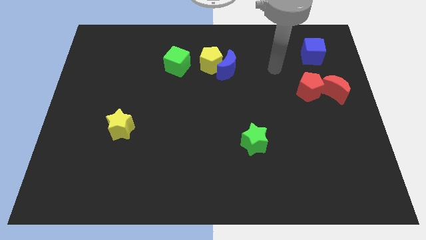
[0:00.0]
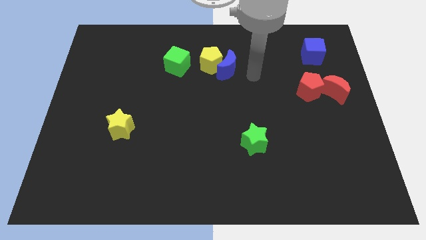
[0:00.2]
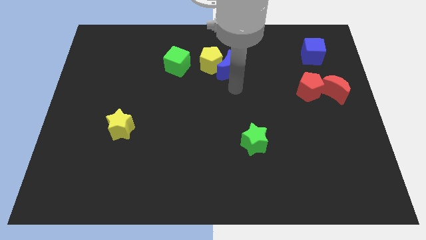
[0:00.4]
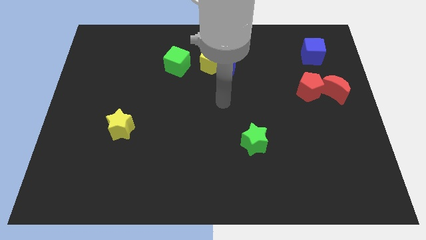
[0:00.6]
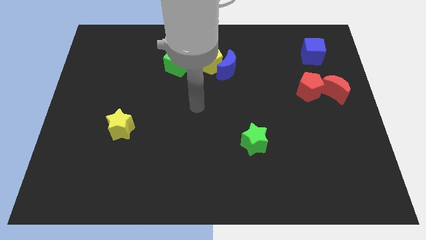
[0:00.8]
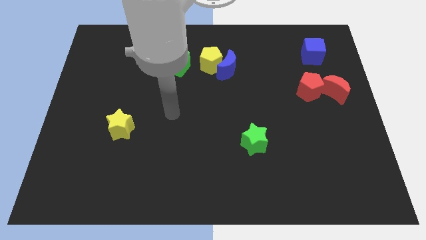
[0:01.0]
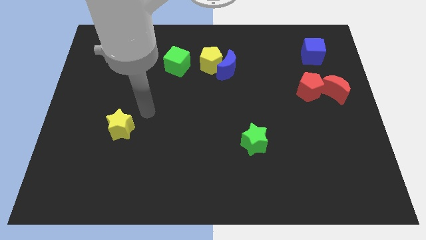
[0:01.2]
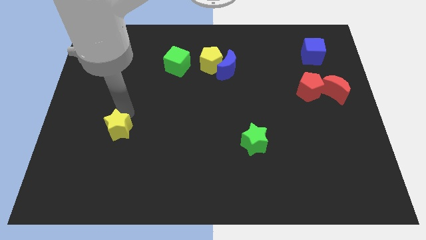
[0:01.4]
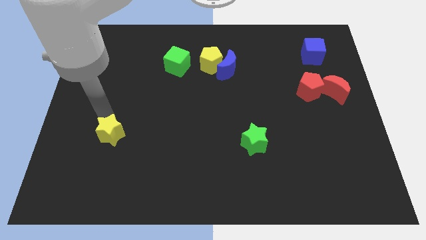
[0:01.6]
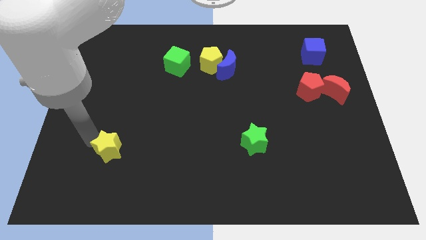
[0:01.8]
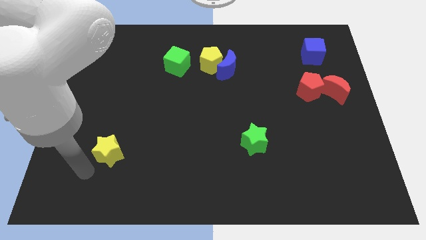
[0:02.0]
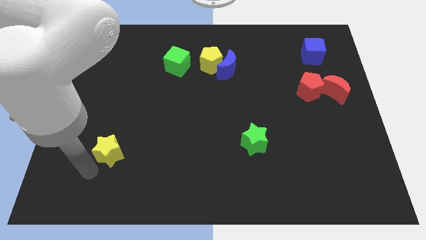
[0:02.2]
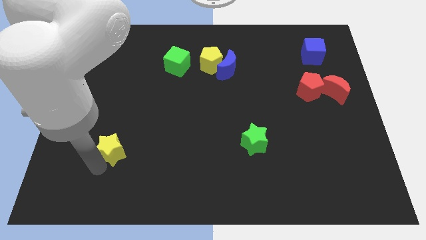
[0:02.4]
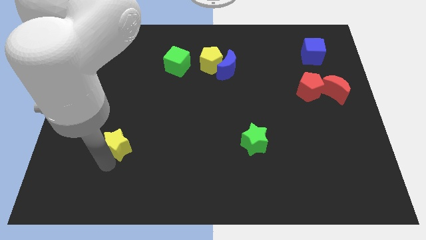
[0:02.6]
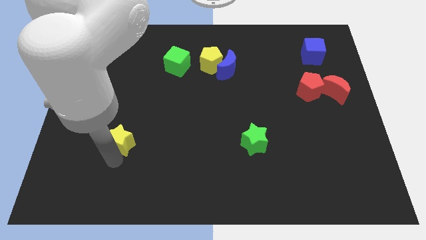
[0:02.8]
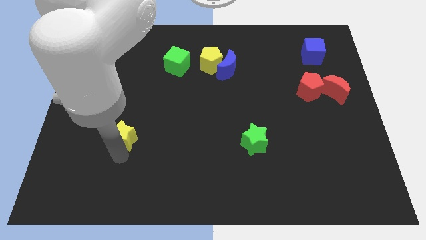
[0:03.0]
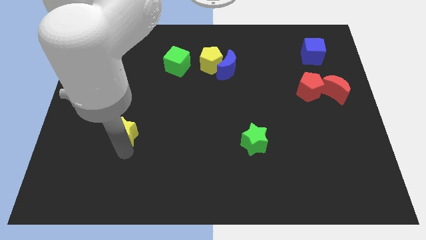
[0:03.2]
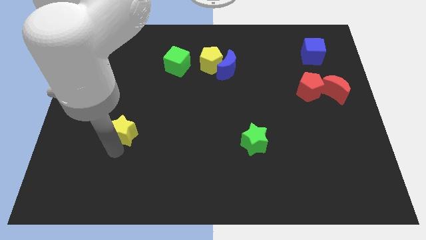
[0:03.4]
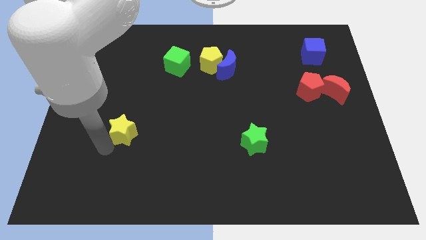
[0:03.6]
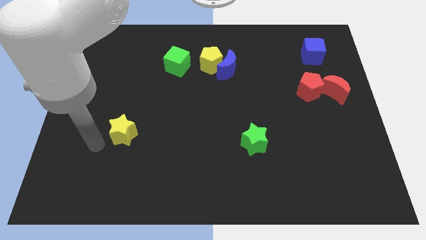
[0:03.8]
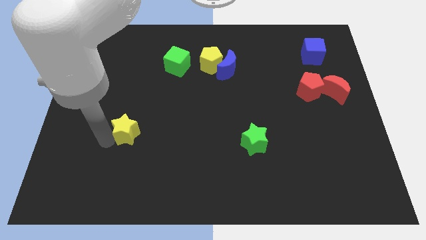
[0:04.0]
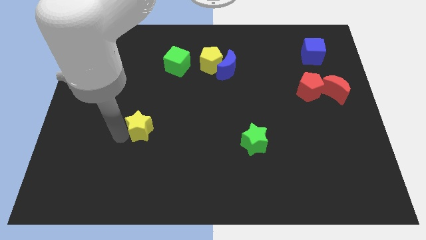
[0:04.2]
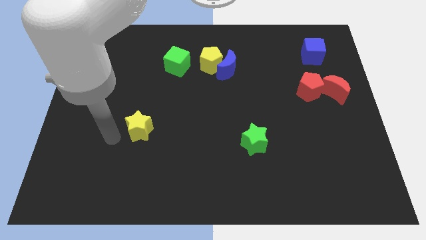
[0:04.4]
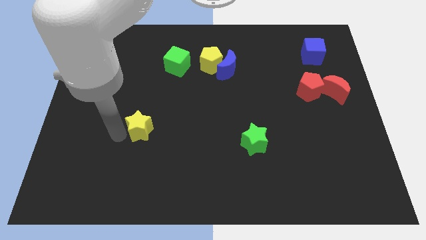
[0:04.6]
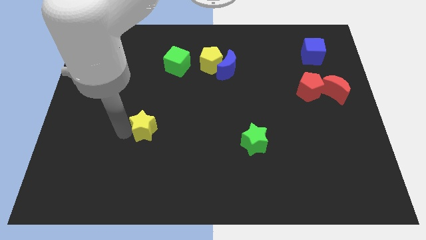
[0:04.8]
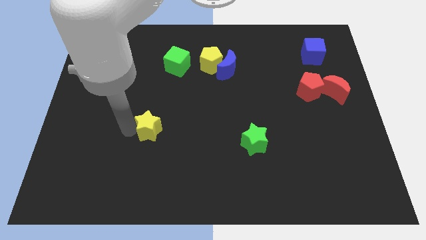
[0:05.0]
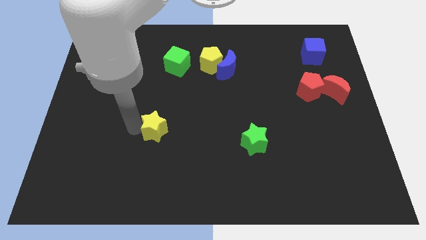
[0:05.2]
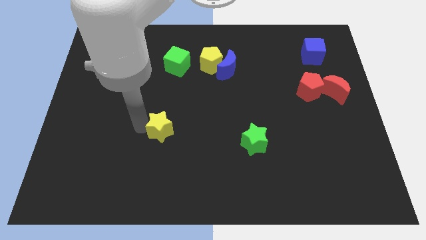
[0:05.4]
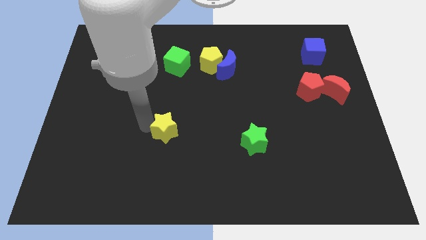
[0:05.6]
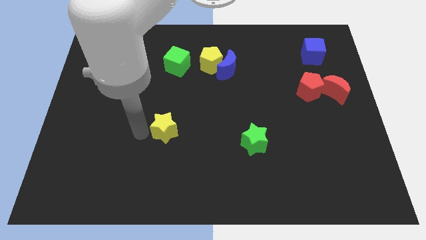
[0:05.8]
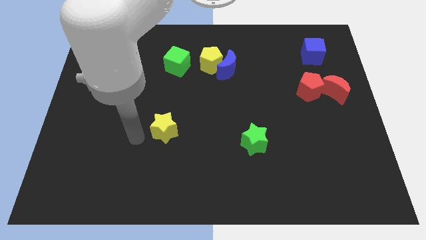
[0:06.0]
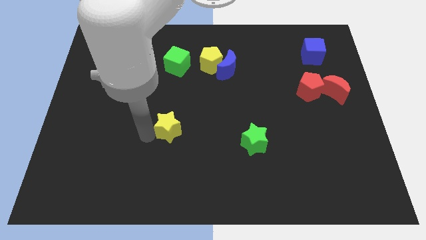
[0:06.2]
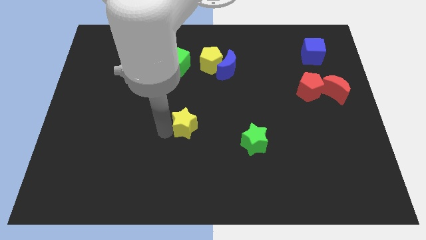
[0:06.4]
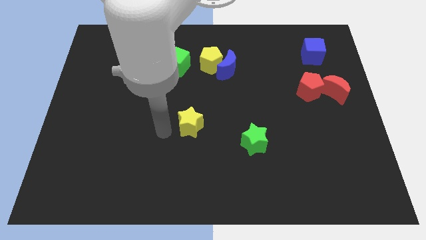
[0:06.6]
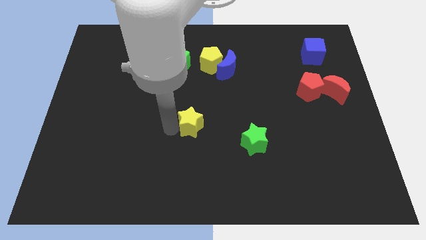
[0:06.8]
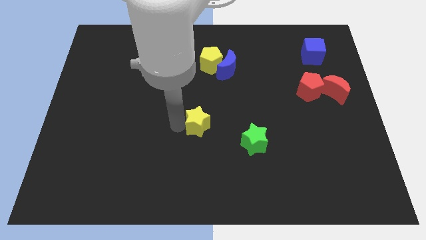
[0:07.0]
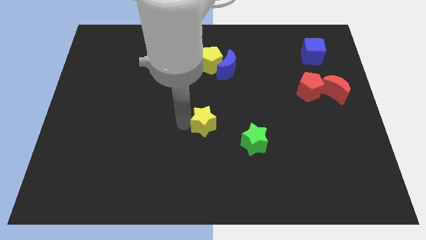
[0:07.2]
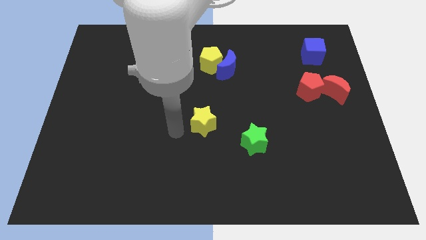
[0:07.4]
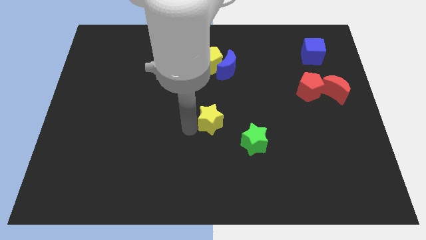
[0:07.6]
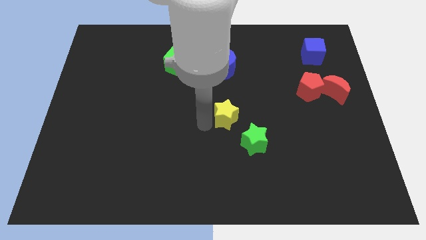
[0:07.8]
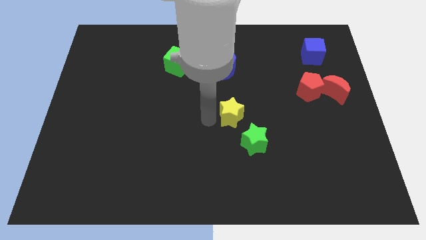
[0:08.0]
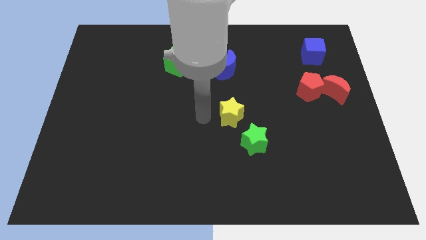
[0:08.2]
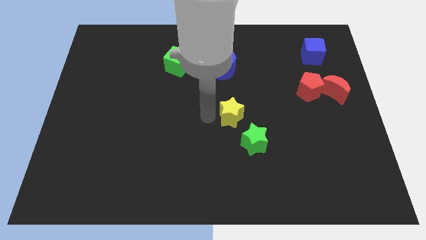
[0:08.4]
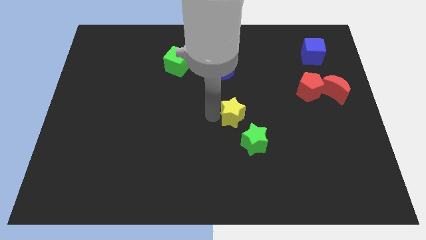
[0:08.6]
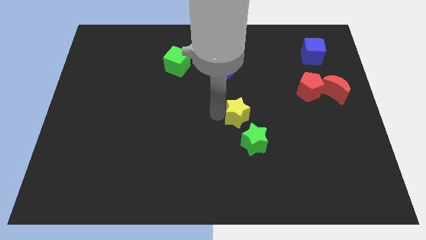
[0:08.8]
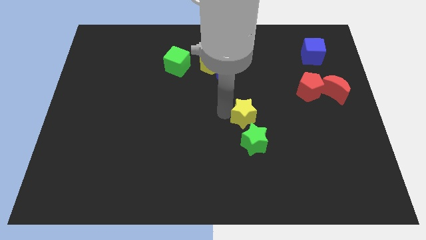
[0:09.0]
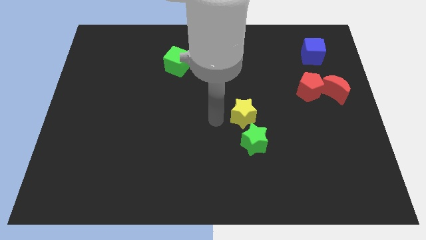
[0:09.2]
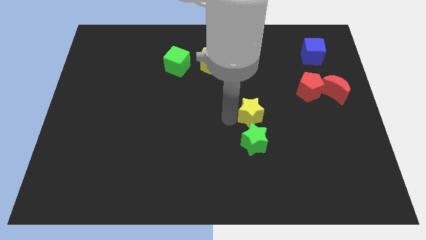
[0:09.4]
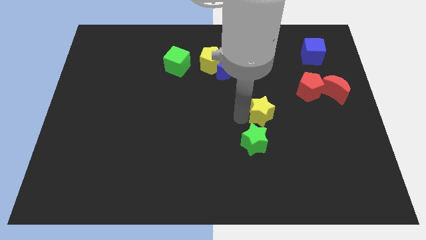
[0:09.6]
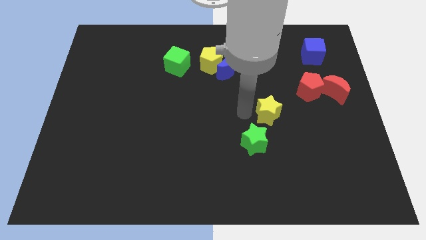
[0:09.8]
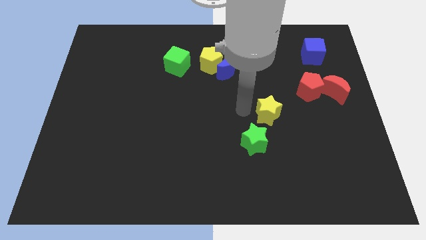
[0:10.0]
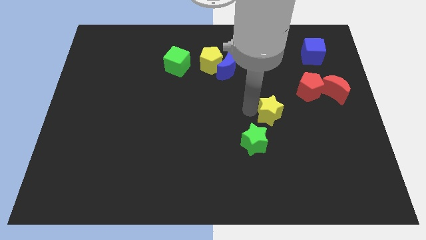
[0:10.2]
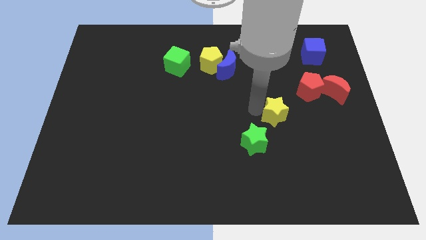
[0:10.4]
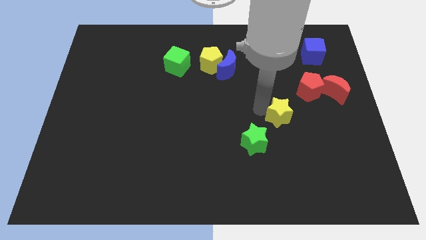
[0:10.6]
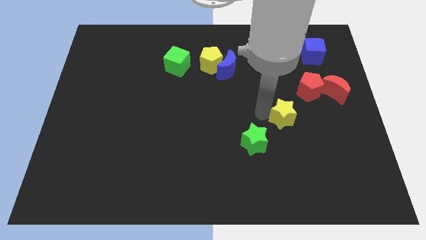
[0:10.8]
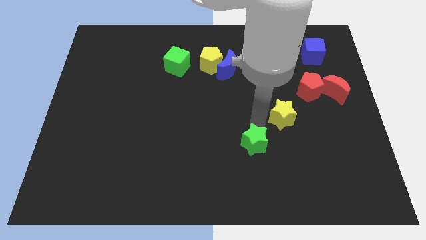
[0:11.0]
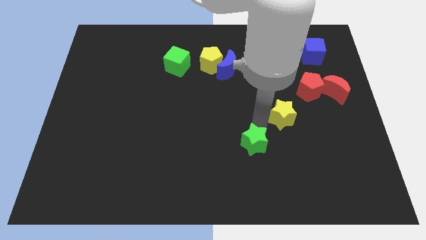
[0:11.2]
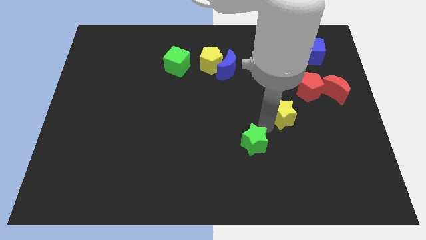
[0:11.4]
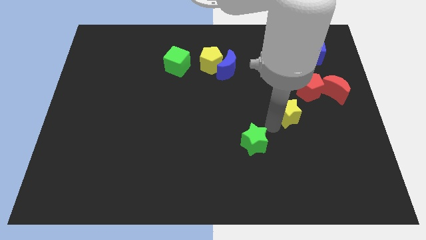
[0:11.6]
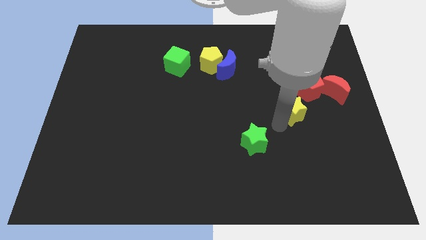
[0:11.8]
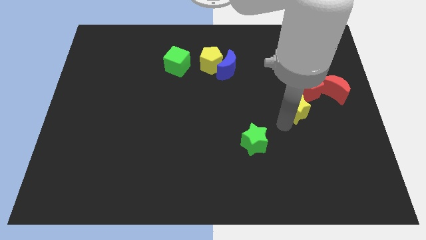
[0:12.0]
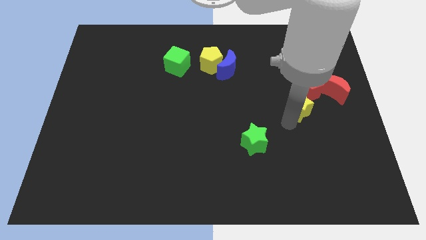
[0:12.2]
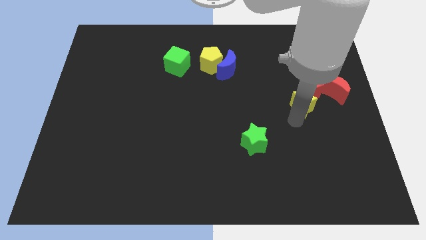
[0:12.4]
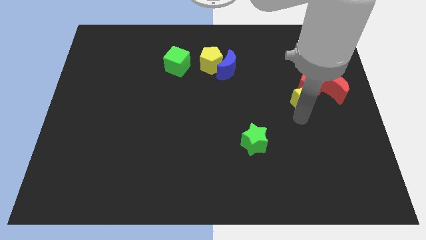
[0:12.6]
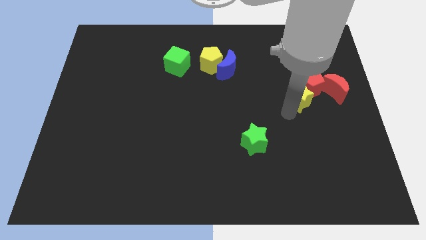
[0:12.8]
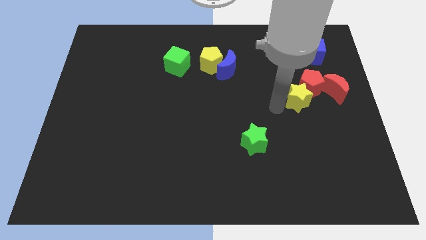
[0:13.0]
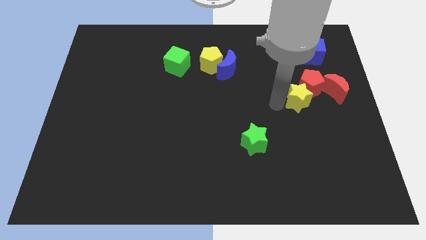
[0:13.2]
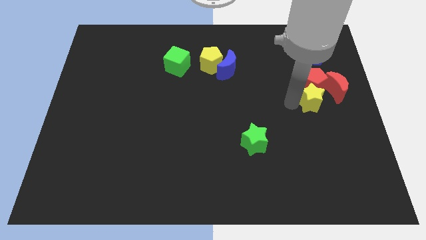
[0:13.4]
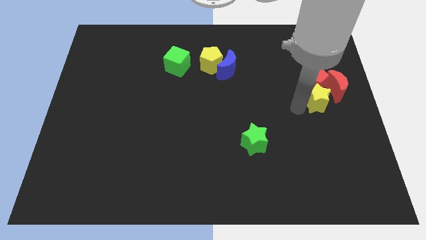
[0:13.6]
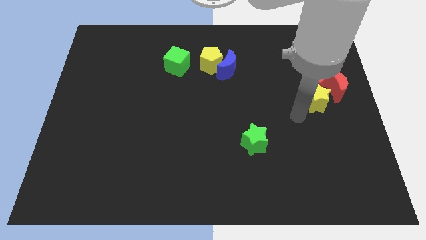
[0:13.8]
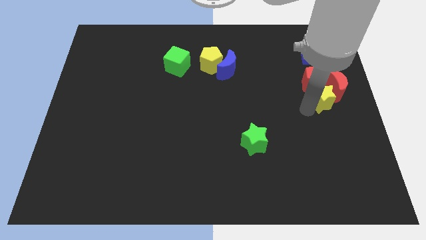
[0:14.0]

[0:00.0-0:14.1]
push the yellow star next to the red moon
